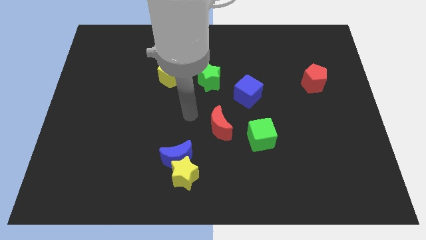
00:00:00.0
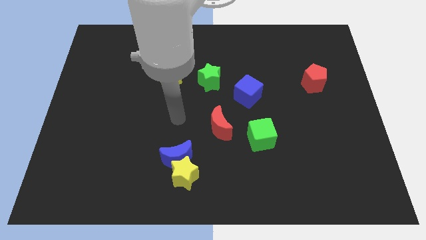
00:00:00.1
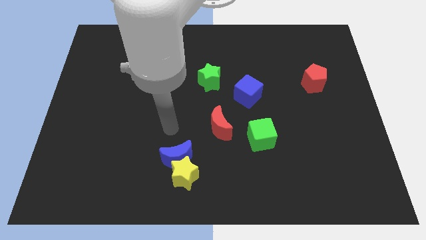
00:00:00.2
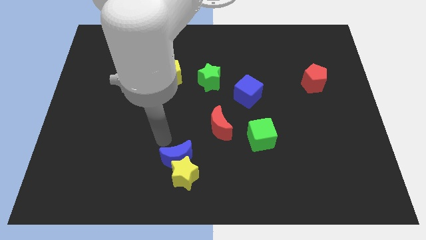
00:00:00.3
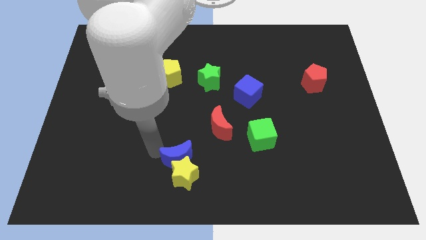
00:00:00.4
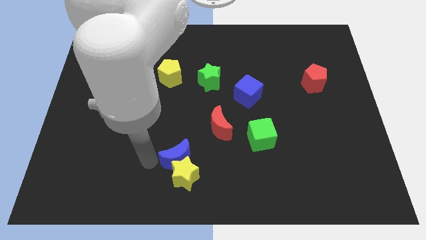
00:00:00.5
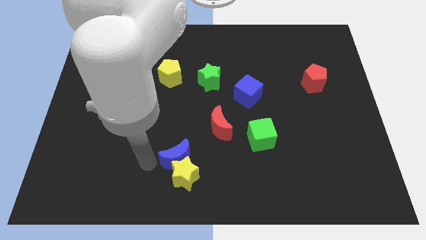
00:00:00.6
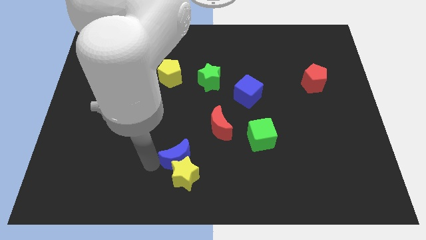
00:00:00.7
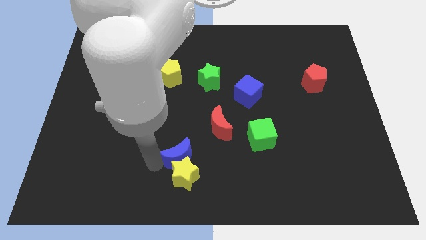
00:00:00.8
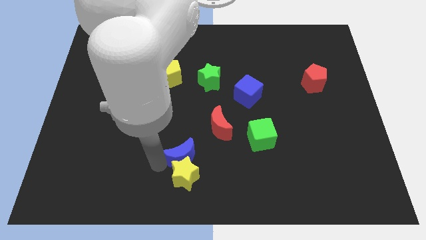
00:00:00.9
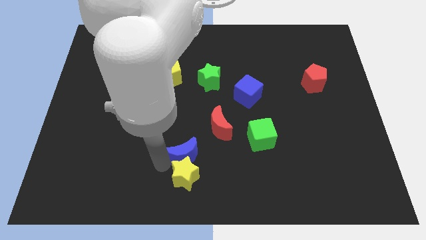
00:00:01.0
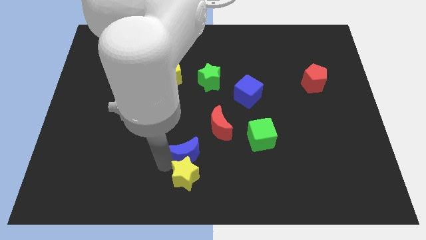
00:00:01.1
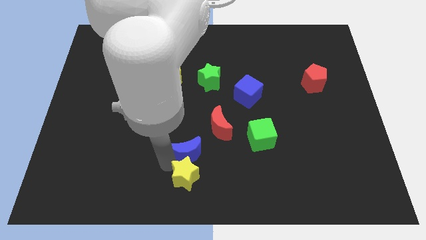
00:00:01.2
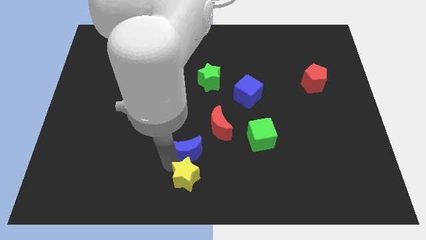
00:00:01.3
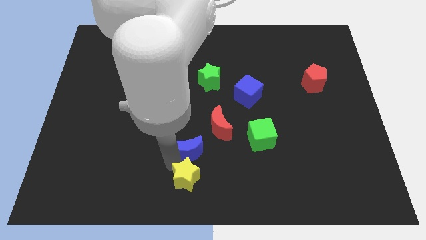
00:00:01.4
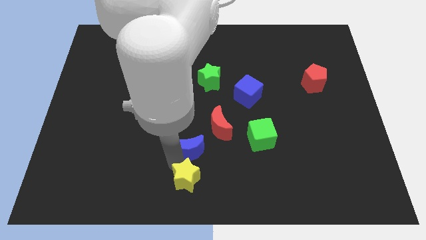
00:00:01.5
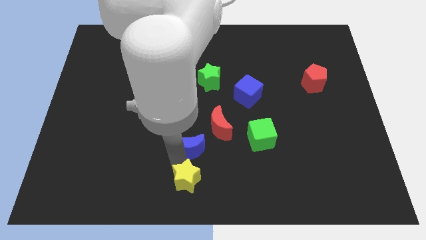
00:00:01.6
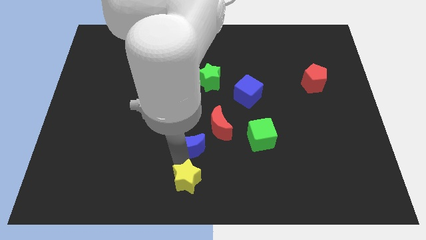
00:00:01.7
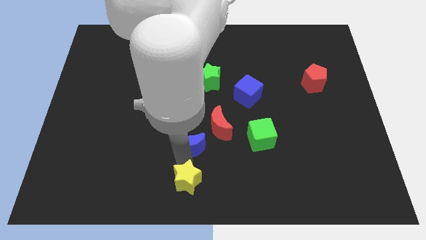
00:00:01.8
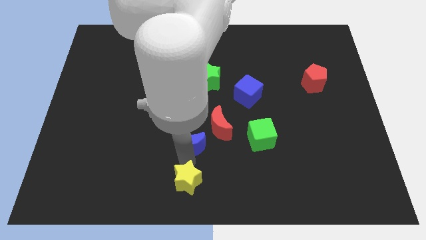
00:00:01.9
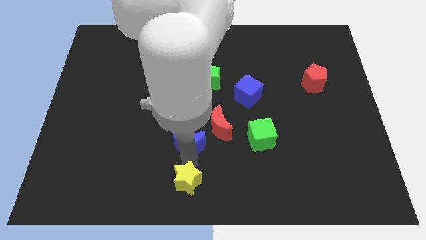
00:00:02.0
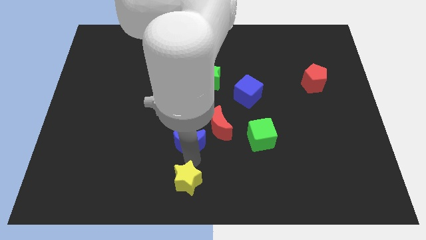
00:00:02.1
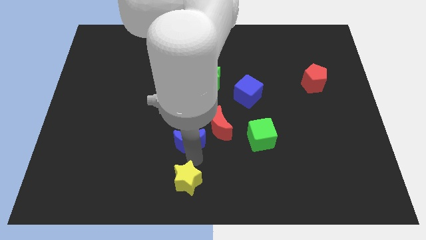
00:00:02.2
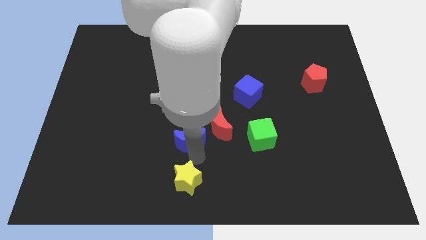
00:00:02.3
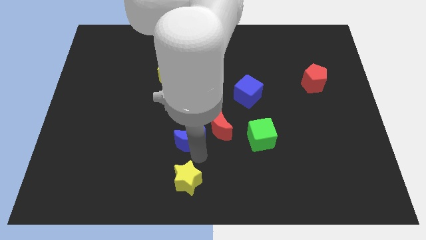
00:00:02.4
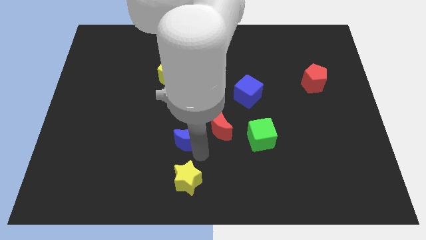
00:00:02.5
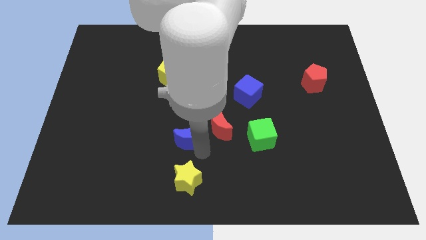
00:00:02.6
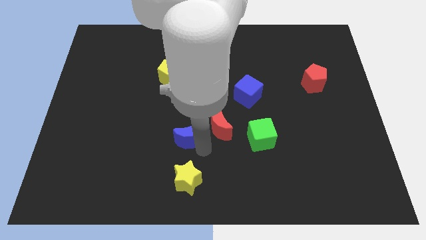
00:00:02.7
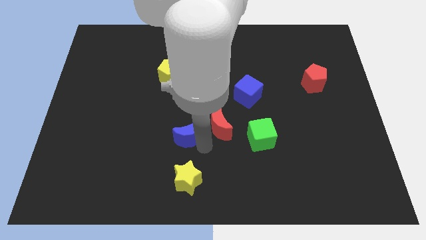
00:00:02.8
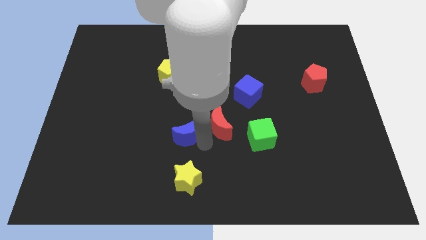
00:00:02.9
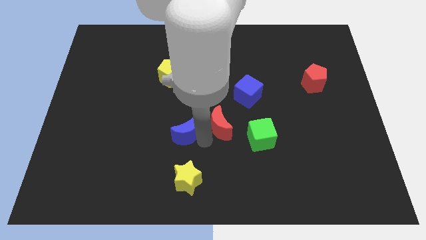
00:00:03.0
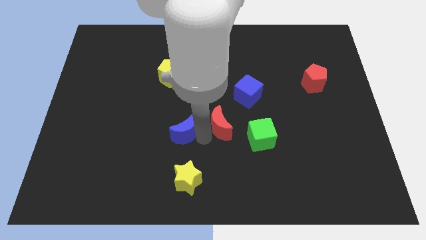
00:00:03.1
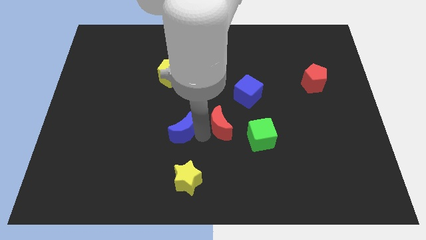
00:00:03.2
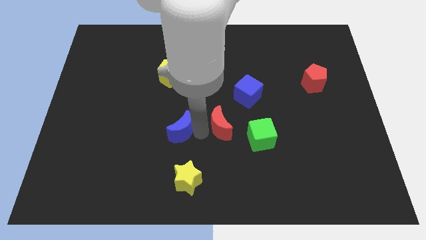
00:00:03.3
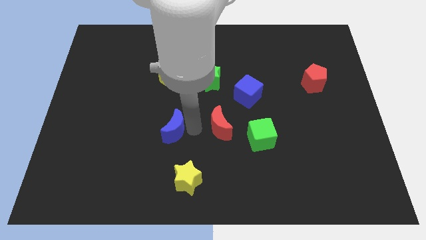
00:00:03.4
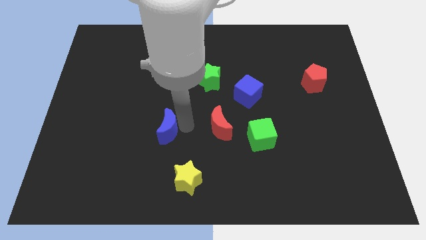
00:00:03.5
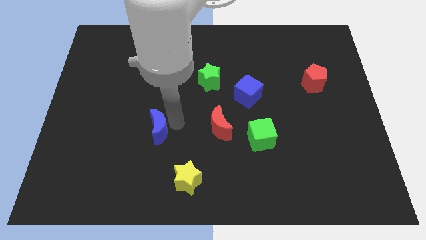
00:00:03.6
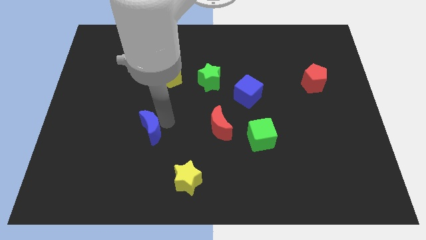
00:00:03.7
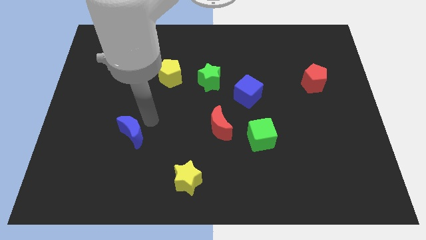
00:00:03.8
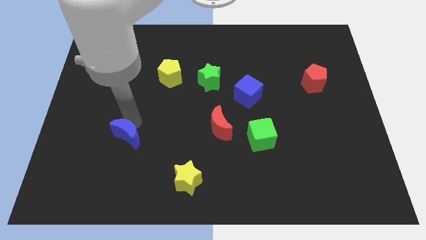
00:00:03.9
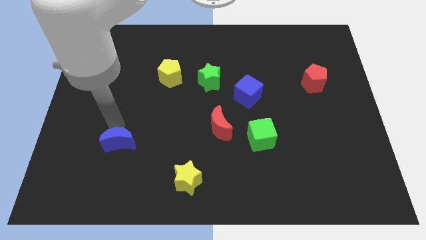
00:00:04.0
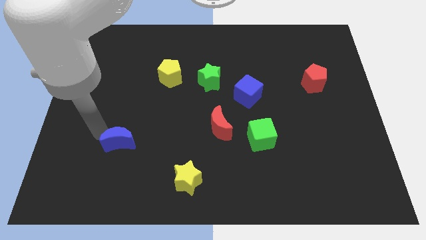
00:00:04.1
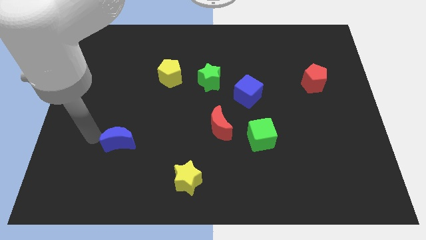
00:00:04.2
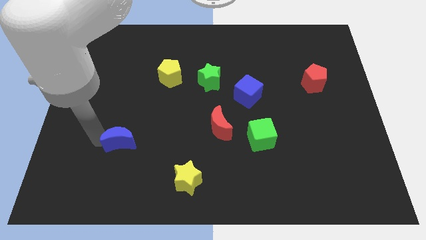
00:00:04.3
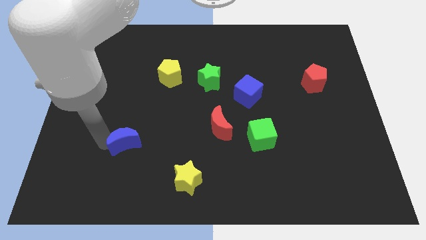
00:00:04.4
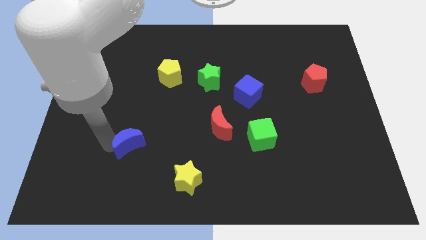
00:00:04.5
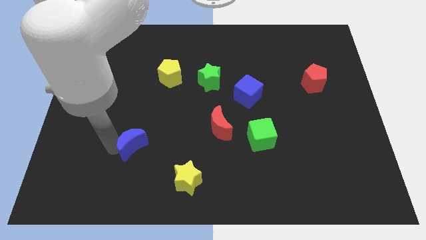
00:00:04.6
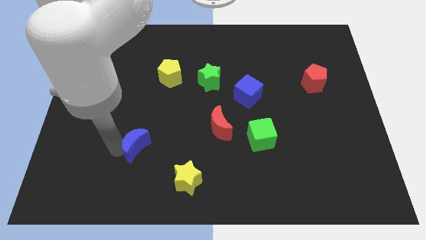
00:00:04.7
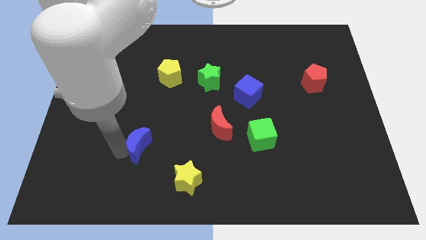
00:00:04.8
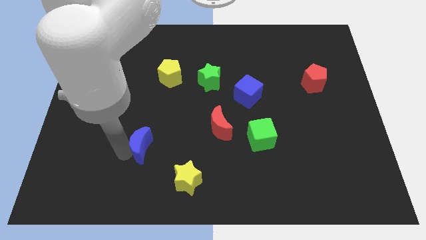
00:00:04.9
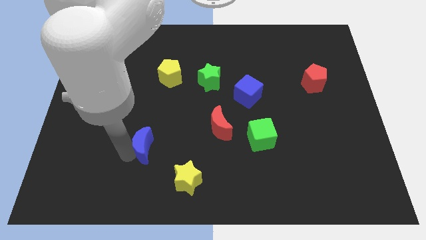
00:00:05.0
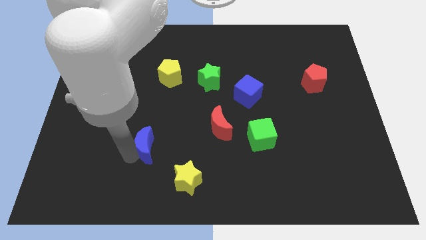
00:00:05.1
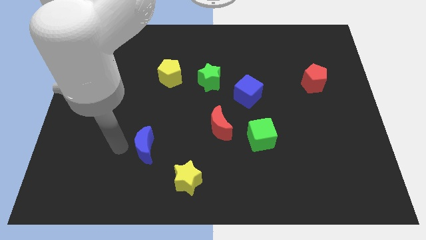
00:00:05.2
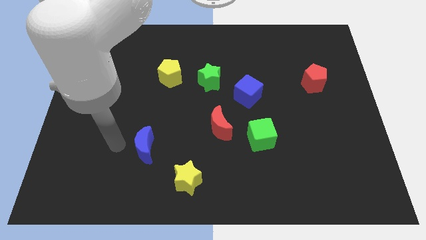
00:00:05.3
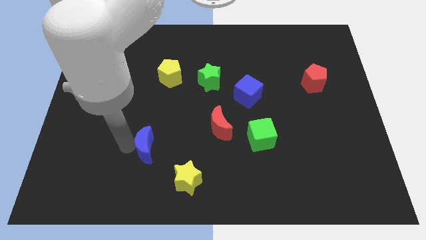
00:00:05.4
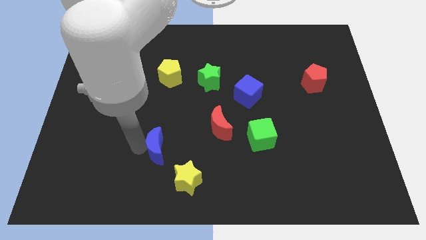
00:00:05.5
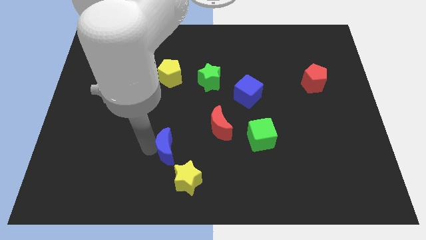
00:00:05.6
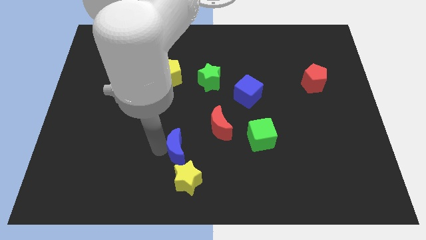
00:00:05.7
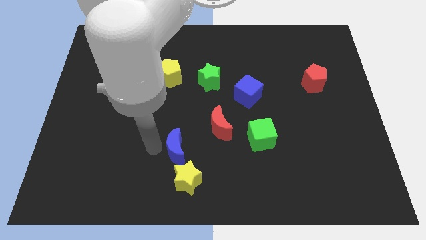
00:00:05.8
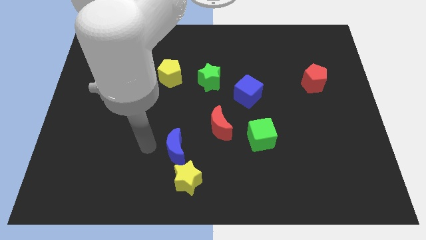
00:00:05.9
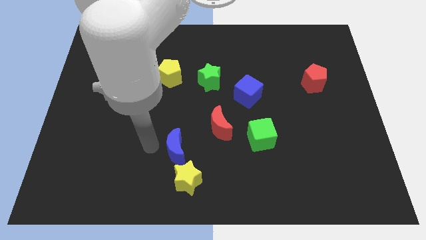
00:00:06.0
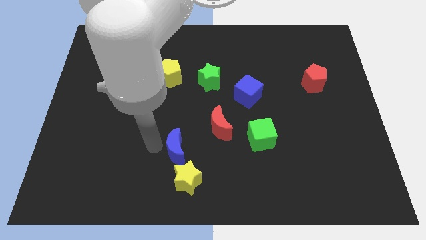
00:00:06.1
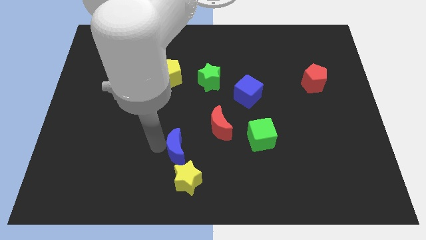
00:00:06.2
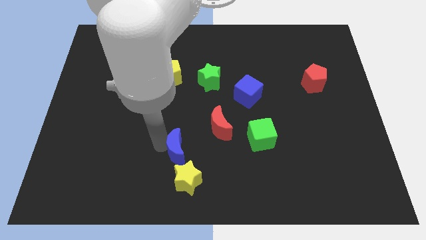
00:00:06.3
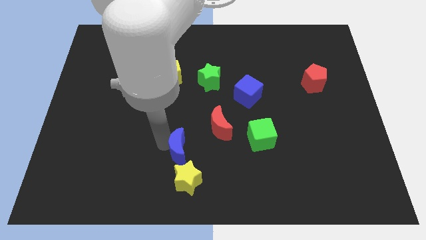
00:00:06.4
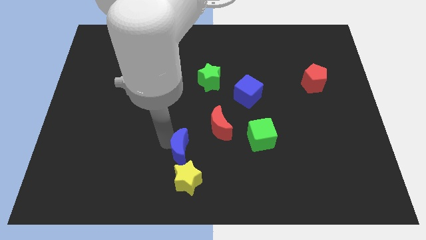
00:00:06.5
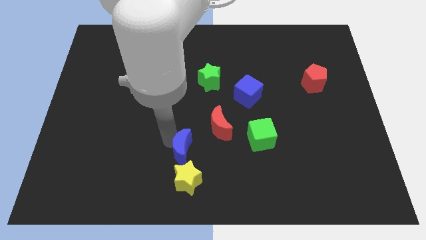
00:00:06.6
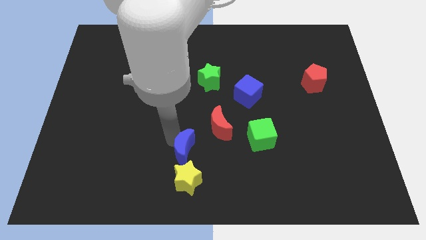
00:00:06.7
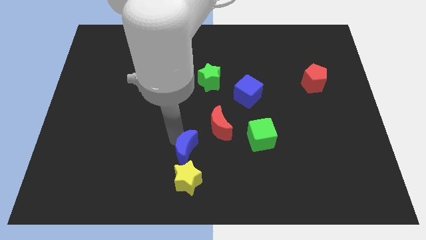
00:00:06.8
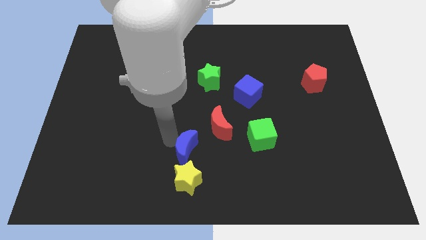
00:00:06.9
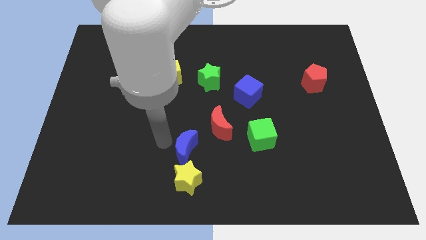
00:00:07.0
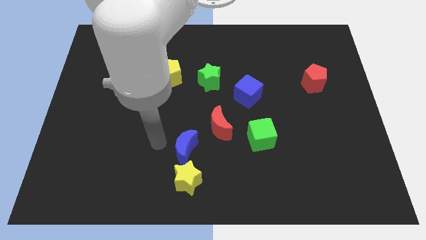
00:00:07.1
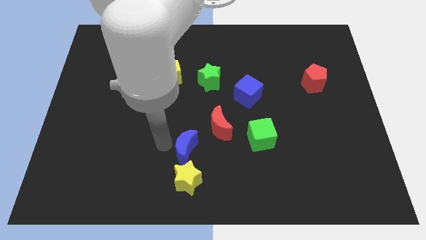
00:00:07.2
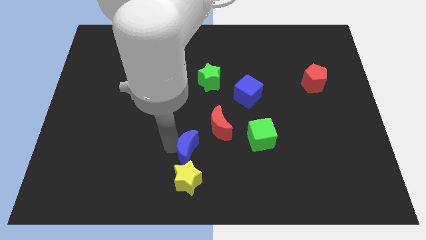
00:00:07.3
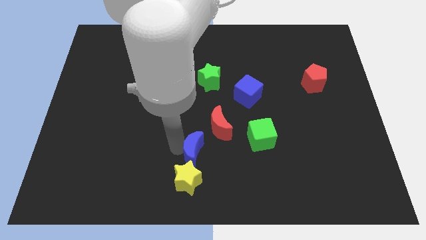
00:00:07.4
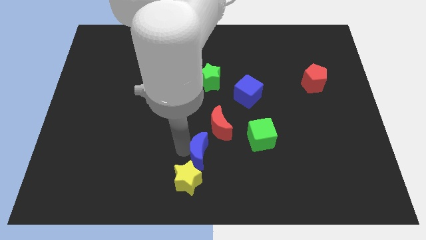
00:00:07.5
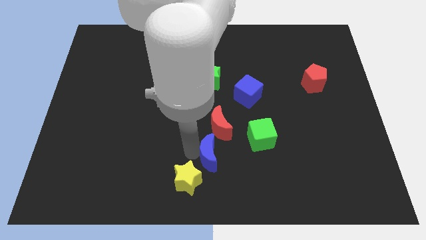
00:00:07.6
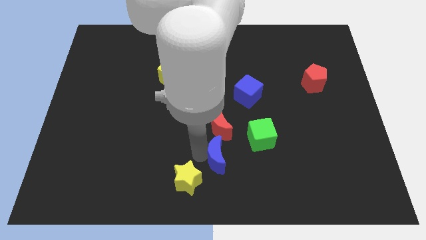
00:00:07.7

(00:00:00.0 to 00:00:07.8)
move the blue moon to the bottom left side of the green cube
